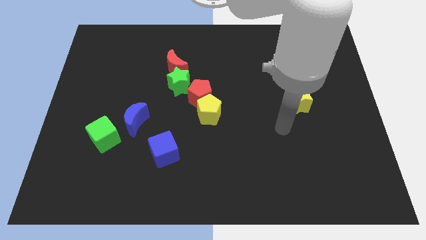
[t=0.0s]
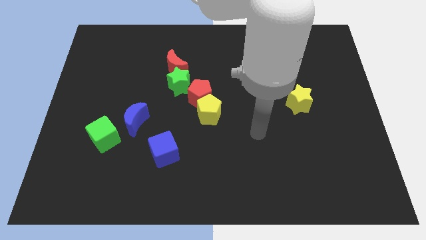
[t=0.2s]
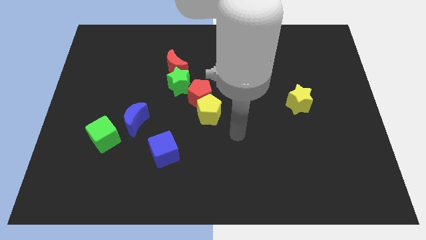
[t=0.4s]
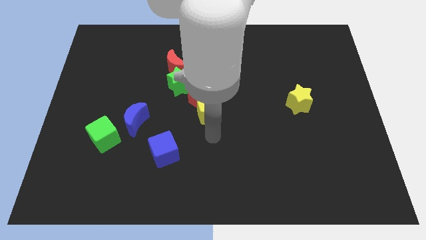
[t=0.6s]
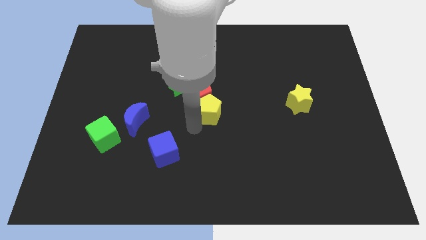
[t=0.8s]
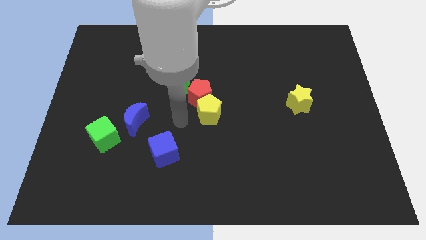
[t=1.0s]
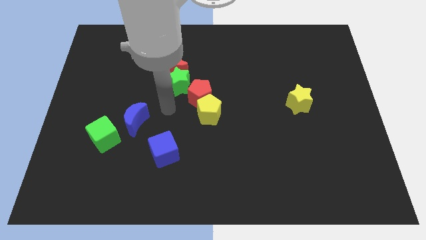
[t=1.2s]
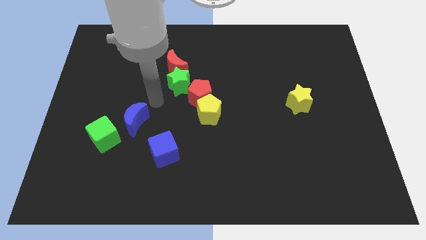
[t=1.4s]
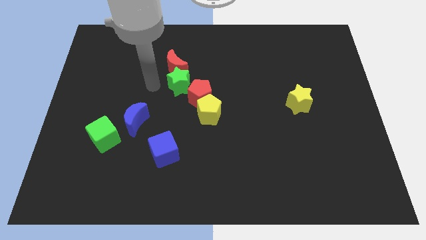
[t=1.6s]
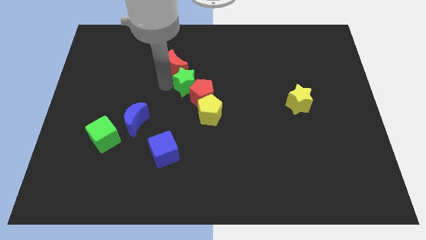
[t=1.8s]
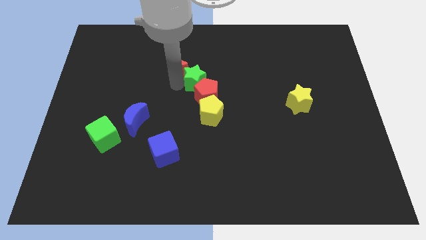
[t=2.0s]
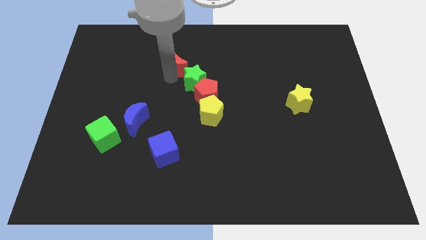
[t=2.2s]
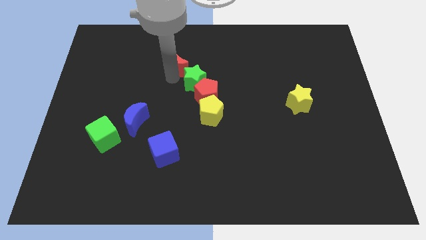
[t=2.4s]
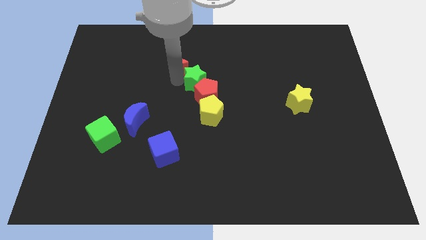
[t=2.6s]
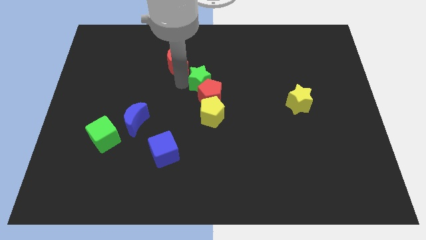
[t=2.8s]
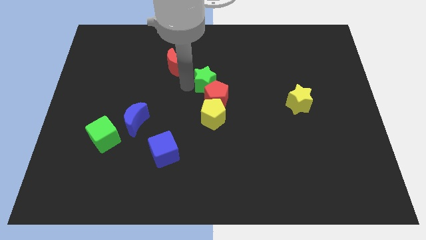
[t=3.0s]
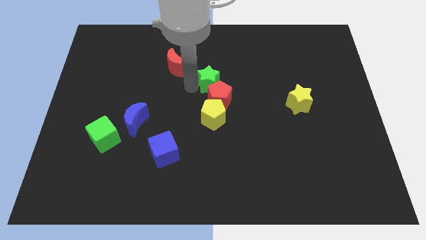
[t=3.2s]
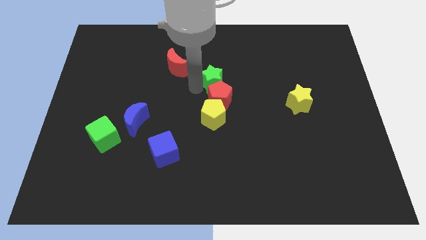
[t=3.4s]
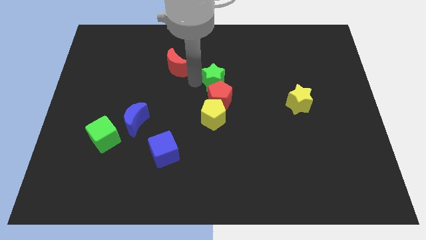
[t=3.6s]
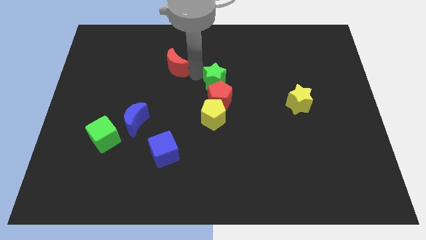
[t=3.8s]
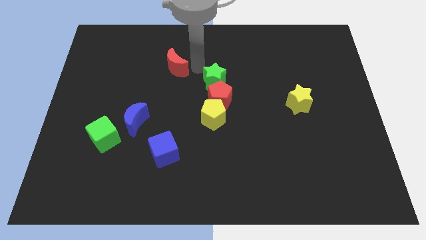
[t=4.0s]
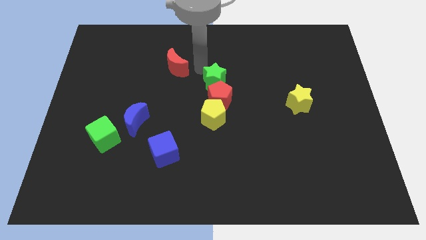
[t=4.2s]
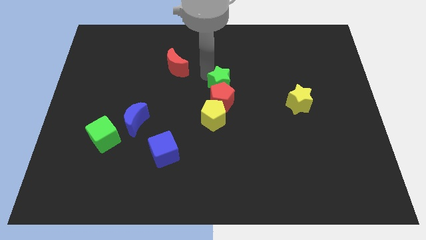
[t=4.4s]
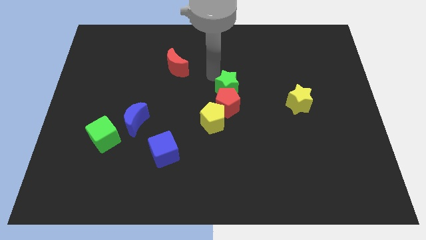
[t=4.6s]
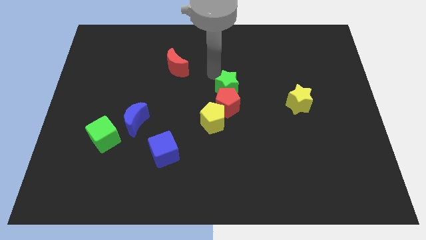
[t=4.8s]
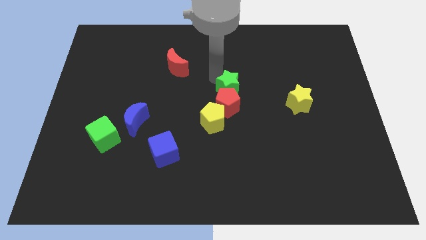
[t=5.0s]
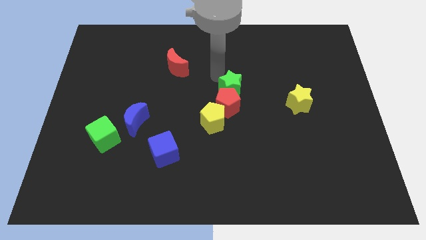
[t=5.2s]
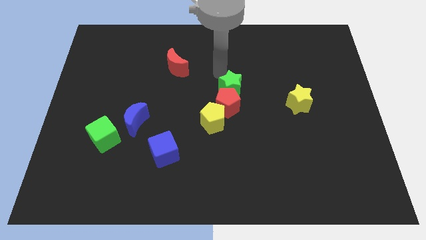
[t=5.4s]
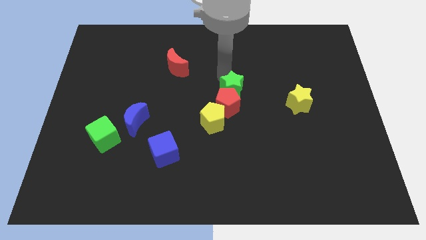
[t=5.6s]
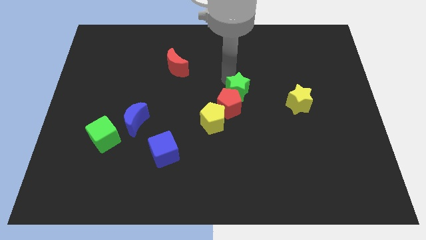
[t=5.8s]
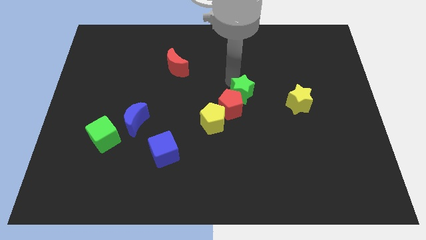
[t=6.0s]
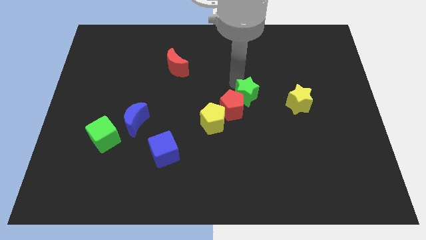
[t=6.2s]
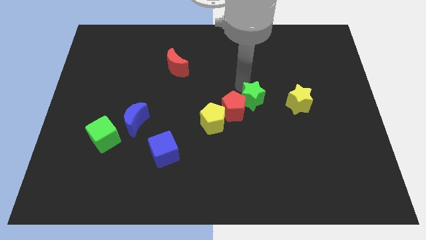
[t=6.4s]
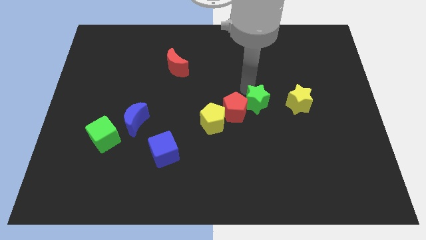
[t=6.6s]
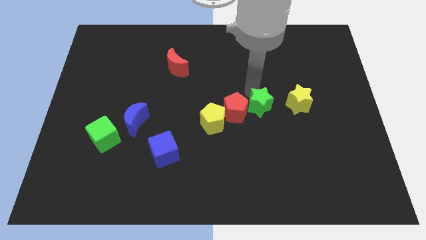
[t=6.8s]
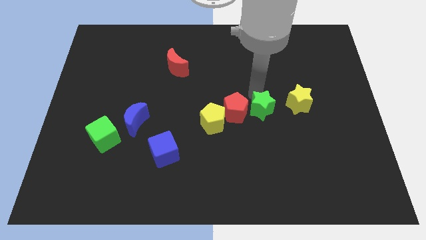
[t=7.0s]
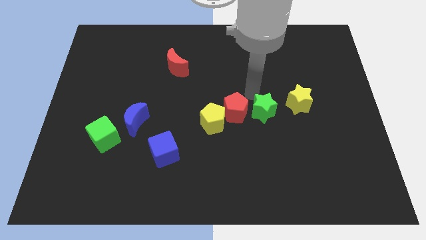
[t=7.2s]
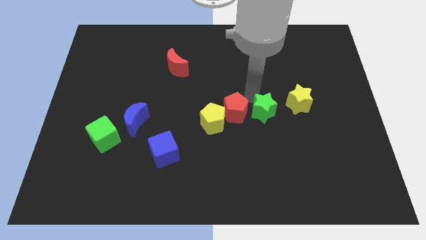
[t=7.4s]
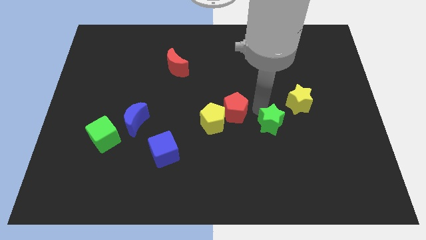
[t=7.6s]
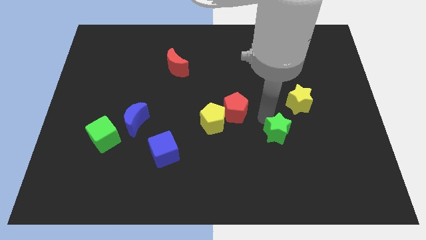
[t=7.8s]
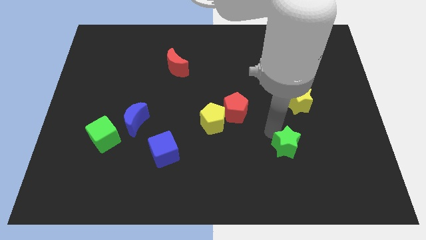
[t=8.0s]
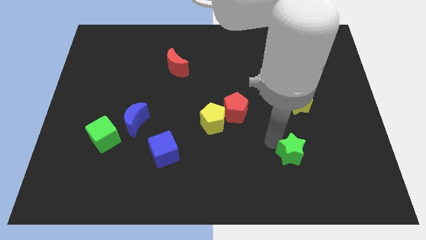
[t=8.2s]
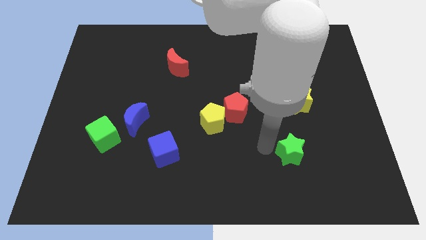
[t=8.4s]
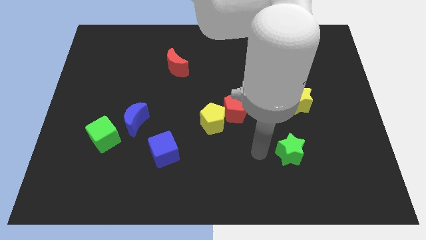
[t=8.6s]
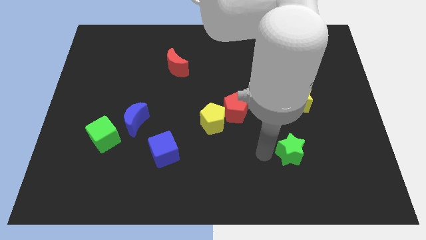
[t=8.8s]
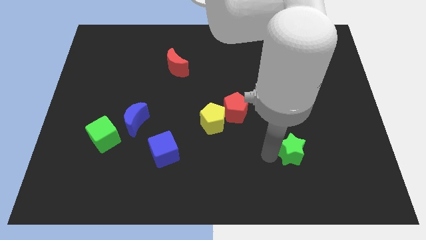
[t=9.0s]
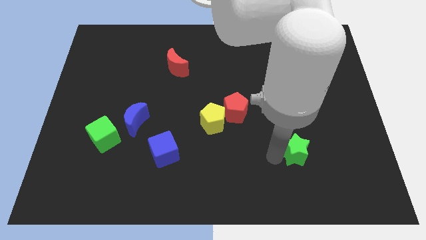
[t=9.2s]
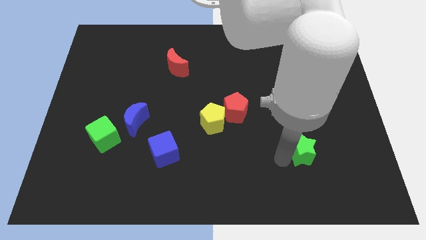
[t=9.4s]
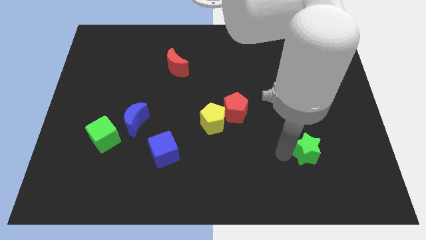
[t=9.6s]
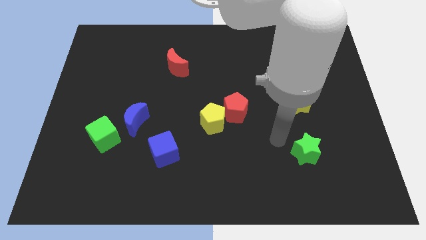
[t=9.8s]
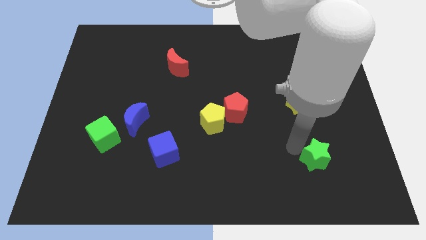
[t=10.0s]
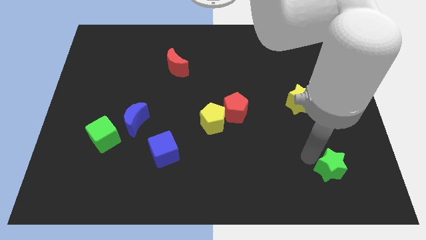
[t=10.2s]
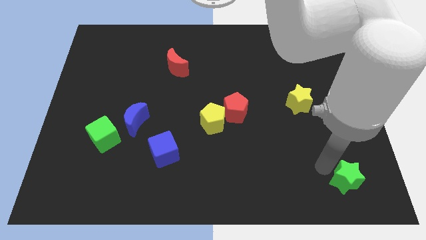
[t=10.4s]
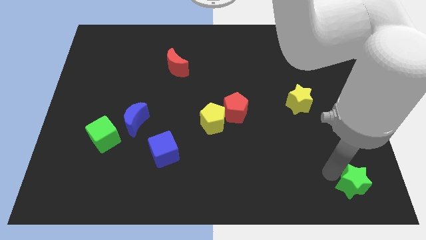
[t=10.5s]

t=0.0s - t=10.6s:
move the green star to the bottom right of the board

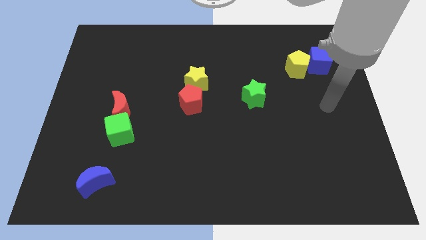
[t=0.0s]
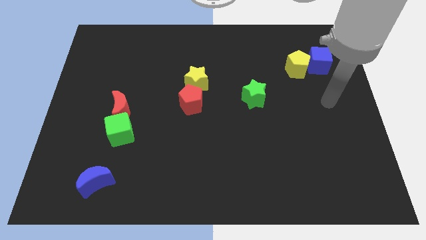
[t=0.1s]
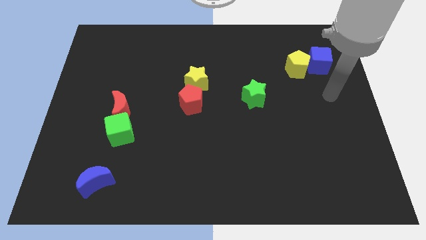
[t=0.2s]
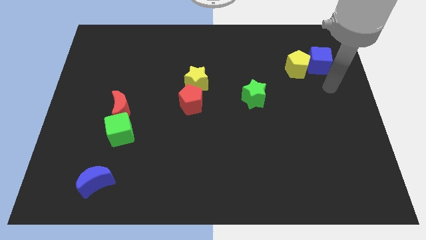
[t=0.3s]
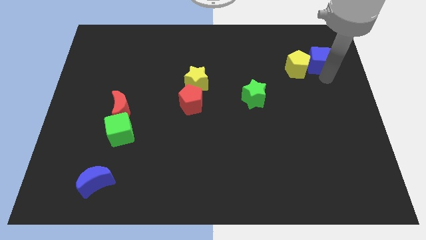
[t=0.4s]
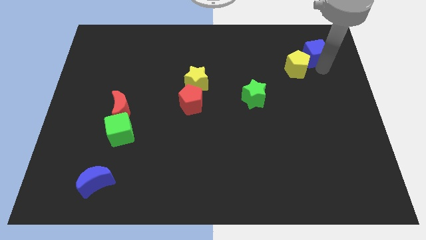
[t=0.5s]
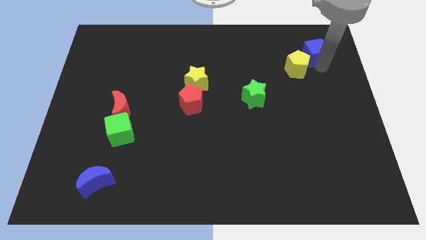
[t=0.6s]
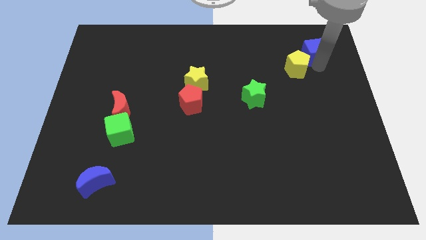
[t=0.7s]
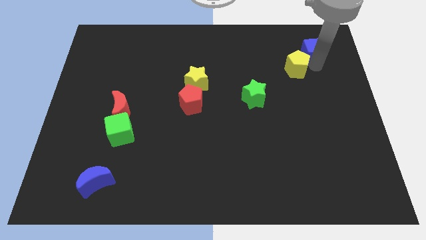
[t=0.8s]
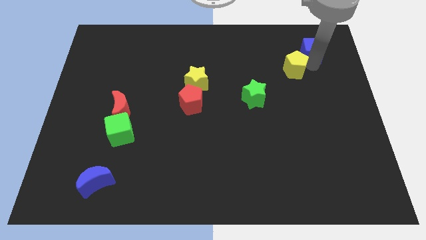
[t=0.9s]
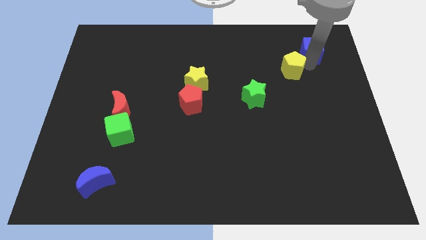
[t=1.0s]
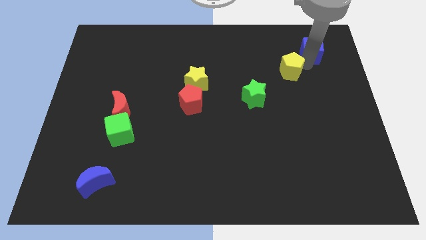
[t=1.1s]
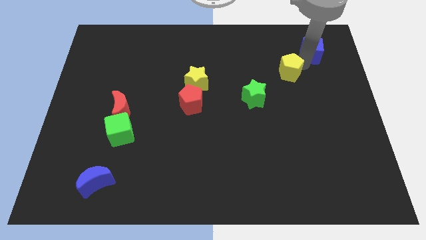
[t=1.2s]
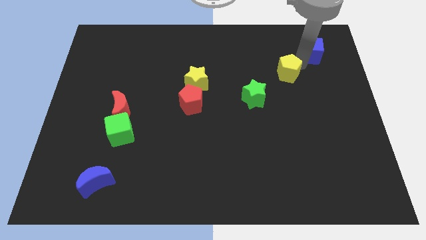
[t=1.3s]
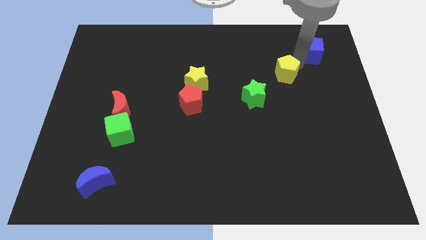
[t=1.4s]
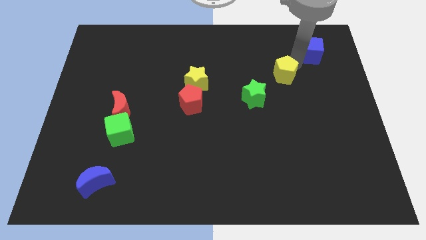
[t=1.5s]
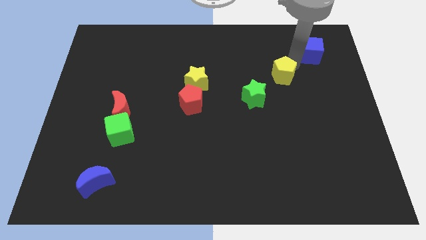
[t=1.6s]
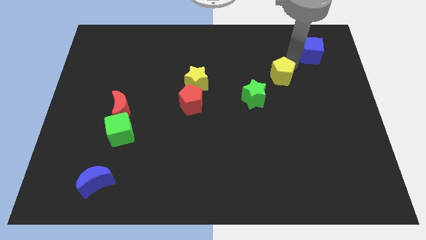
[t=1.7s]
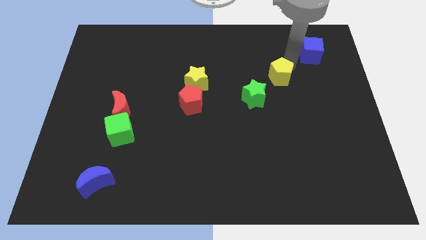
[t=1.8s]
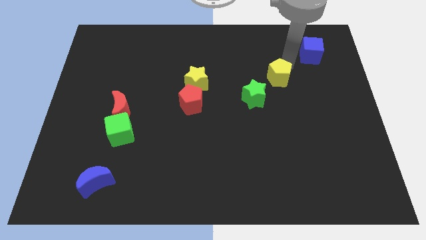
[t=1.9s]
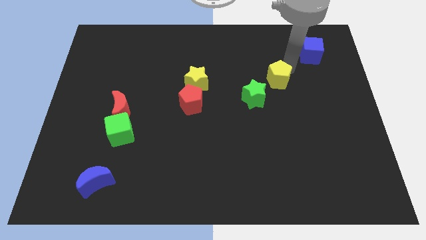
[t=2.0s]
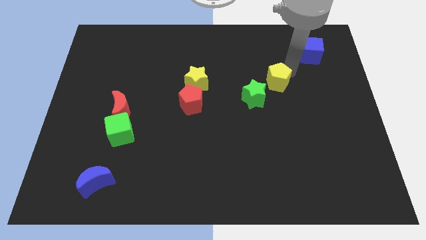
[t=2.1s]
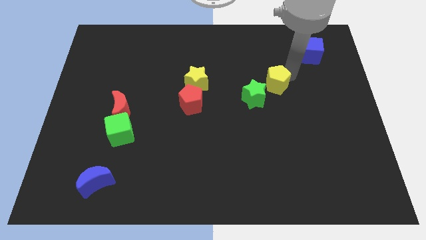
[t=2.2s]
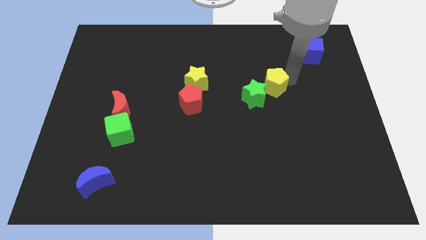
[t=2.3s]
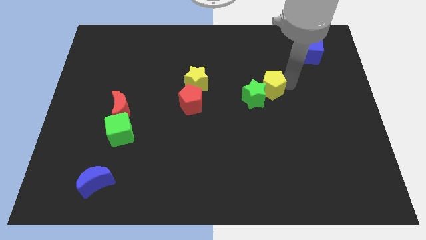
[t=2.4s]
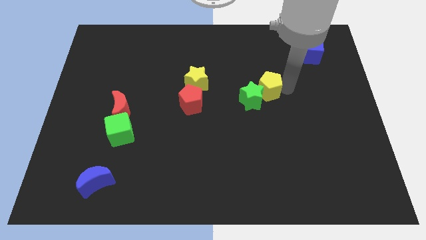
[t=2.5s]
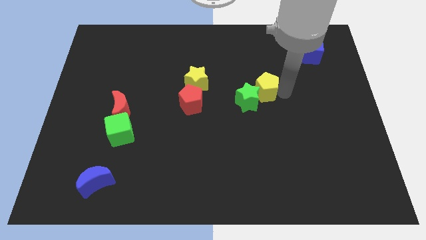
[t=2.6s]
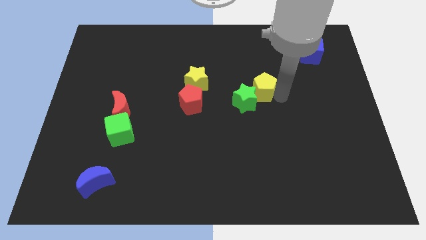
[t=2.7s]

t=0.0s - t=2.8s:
slide the yellow pentagon to the center
